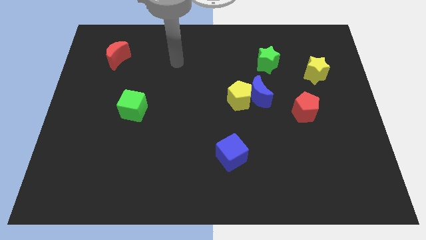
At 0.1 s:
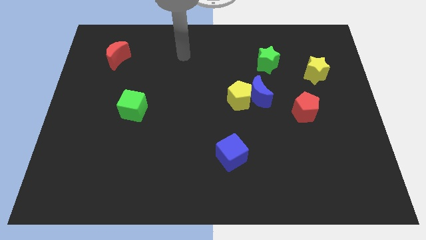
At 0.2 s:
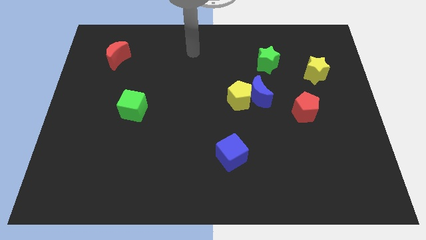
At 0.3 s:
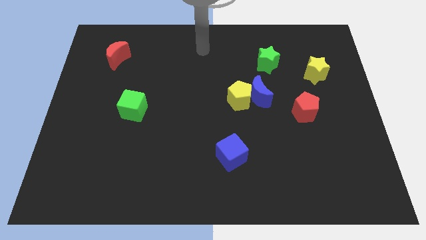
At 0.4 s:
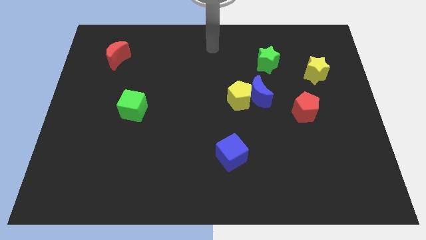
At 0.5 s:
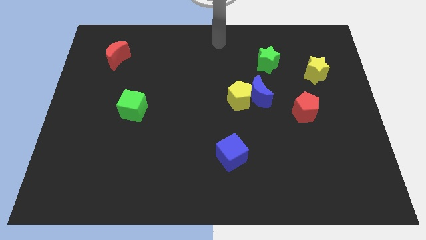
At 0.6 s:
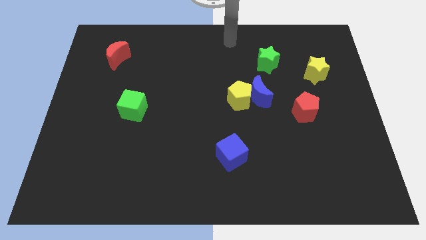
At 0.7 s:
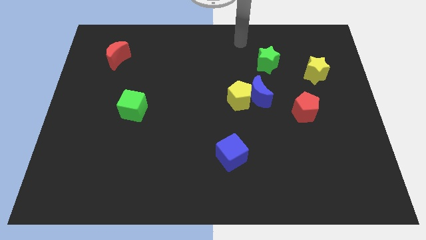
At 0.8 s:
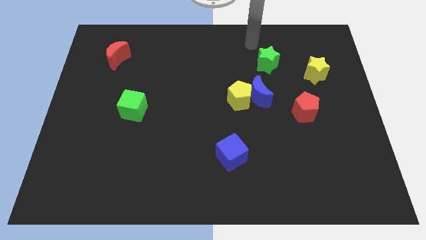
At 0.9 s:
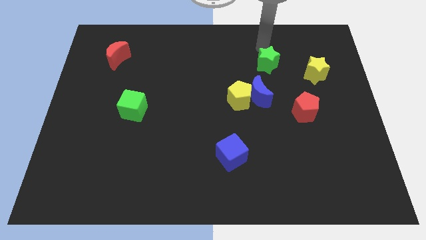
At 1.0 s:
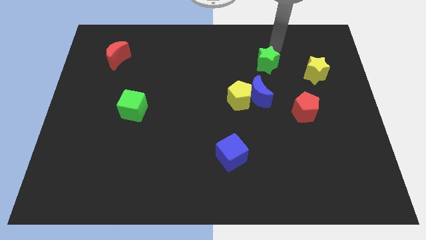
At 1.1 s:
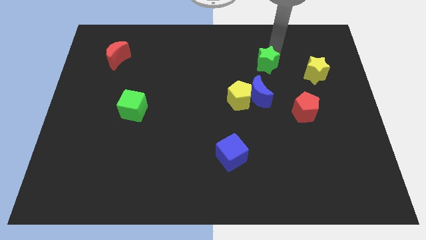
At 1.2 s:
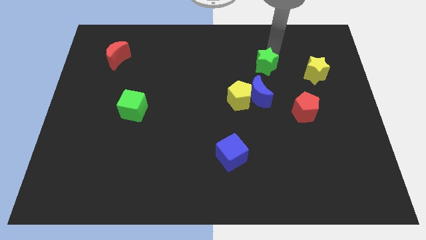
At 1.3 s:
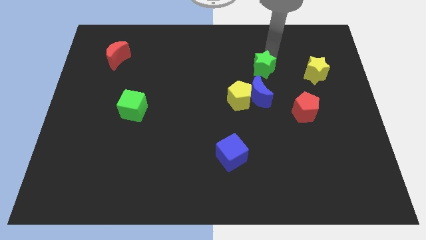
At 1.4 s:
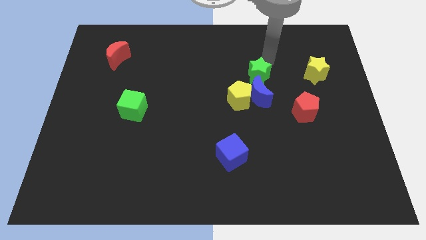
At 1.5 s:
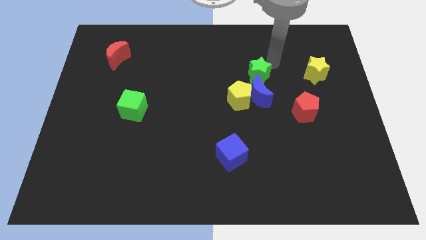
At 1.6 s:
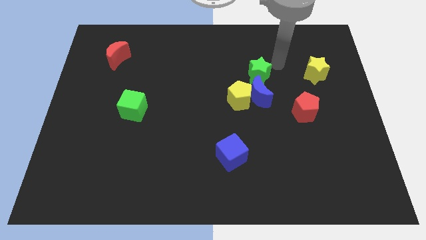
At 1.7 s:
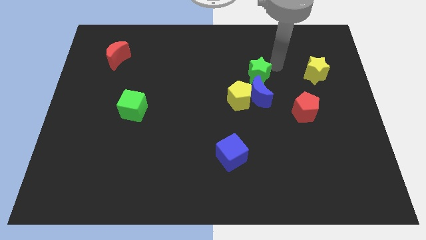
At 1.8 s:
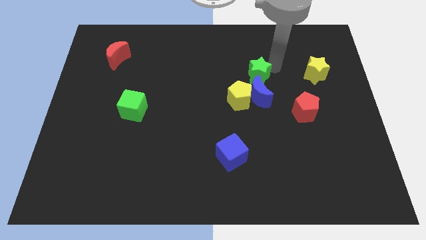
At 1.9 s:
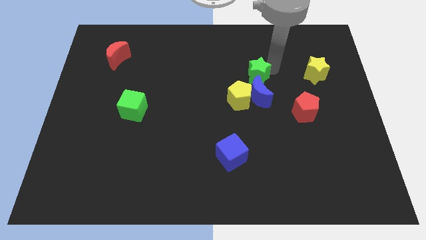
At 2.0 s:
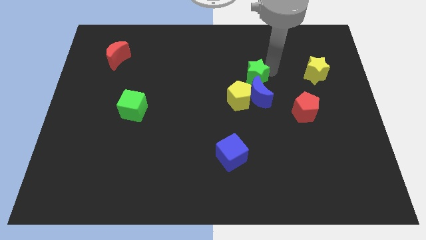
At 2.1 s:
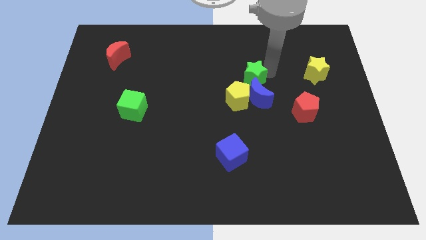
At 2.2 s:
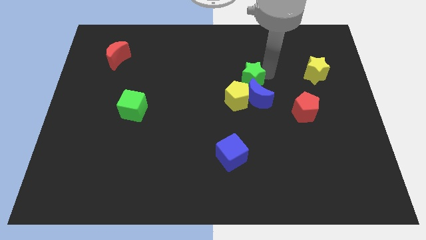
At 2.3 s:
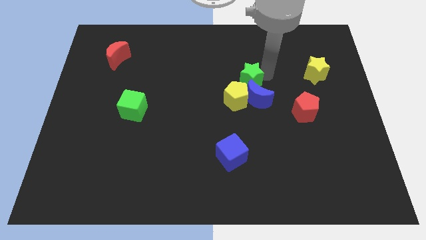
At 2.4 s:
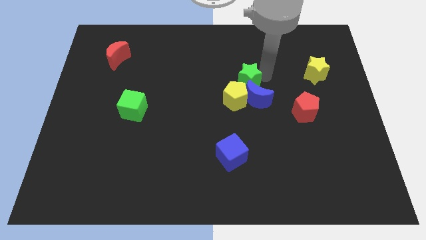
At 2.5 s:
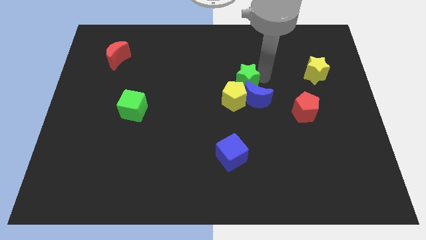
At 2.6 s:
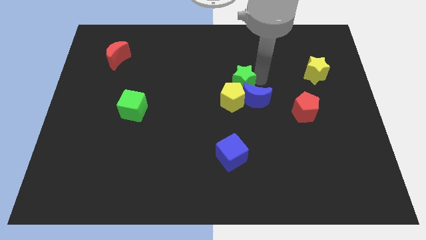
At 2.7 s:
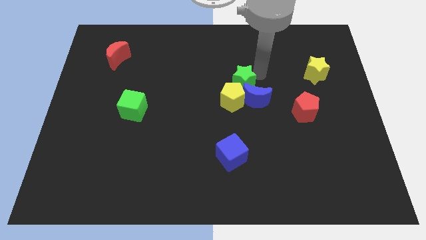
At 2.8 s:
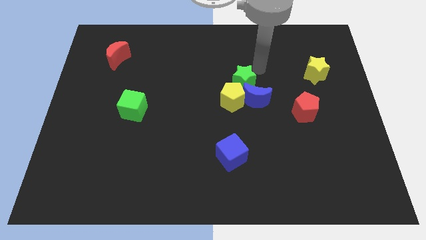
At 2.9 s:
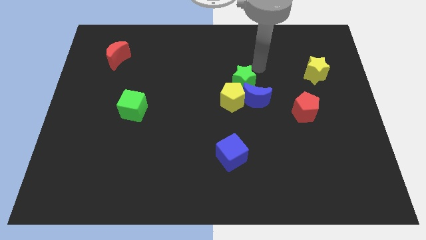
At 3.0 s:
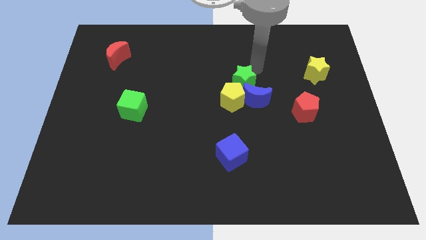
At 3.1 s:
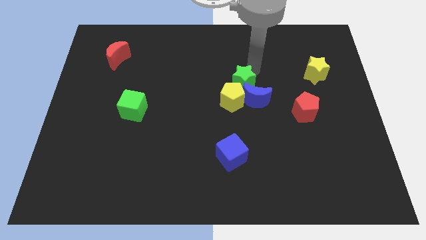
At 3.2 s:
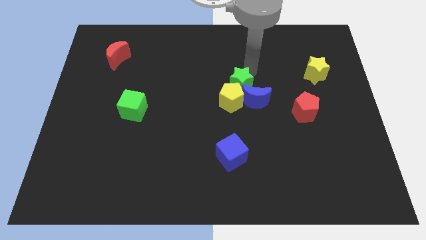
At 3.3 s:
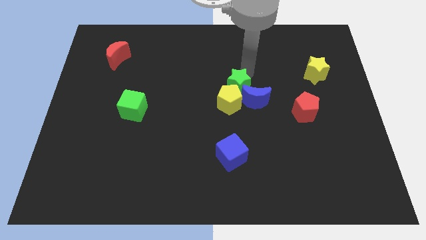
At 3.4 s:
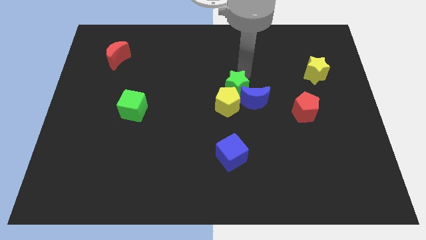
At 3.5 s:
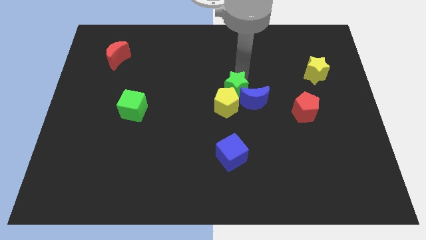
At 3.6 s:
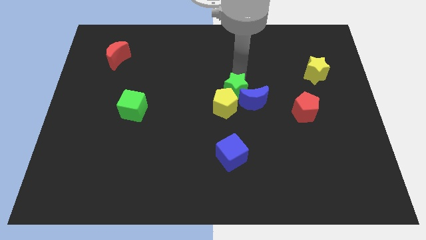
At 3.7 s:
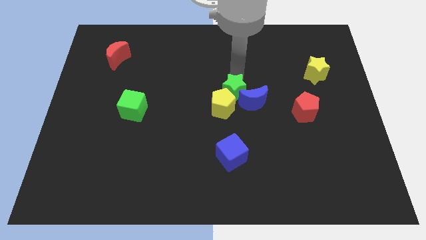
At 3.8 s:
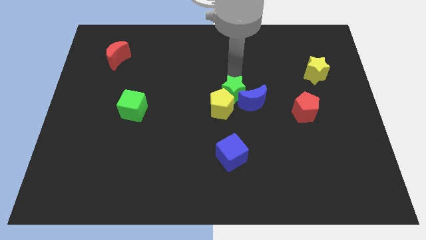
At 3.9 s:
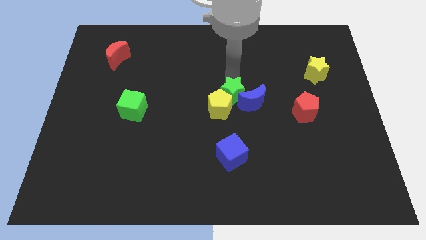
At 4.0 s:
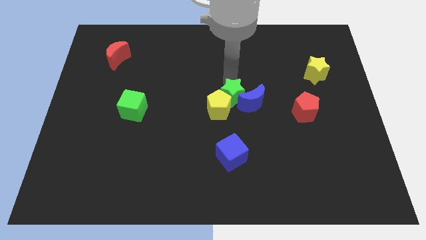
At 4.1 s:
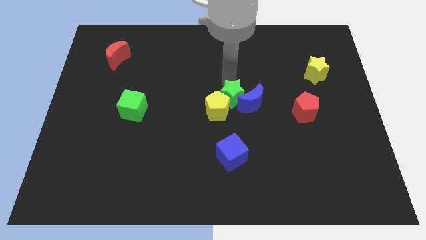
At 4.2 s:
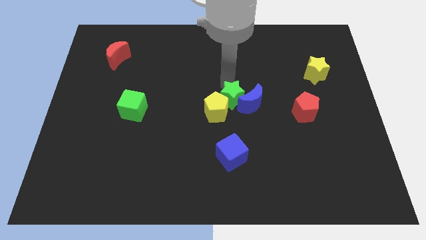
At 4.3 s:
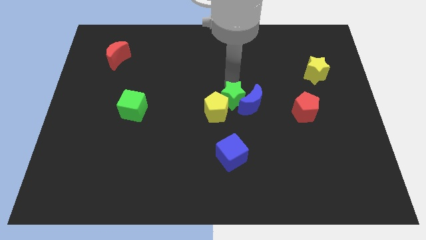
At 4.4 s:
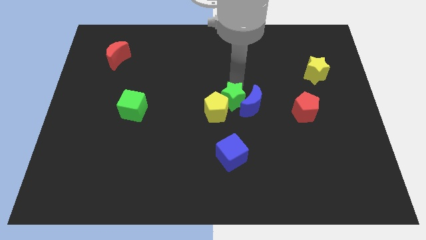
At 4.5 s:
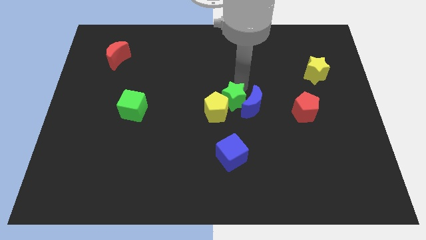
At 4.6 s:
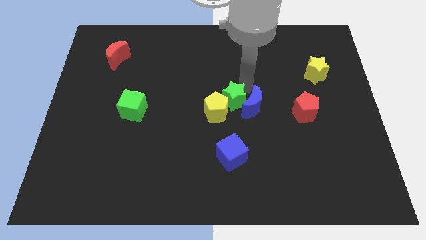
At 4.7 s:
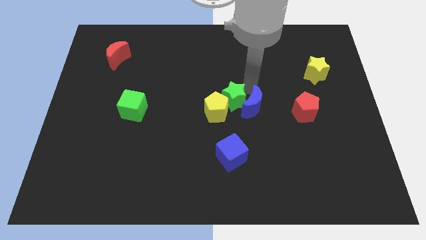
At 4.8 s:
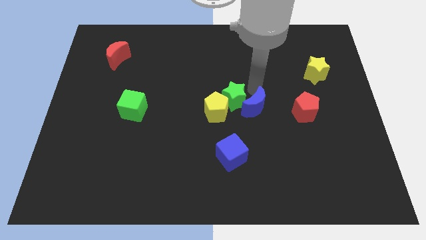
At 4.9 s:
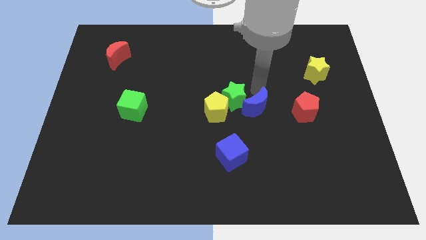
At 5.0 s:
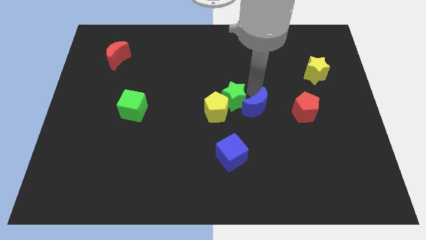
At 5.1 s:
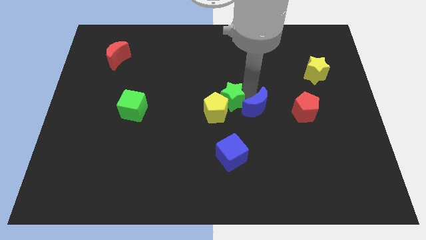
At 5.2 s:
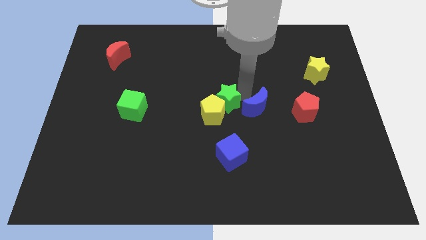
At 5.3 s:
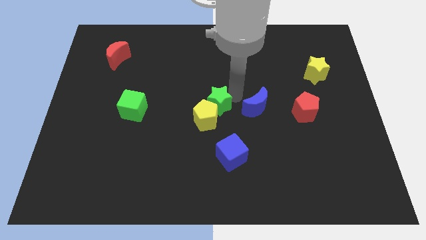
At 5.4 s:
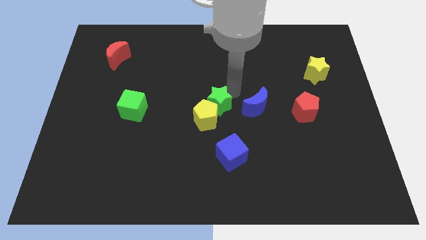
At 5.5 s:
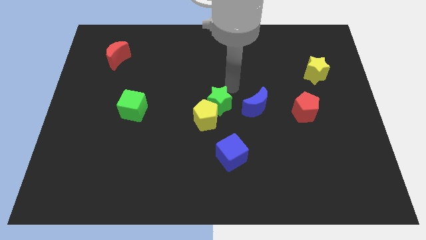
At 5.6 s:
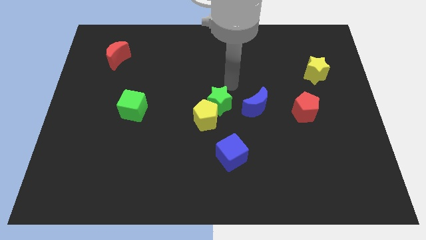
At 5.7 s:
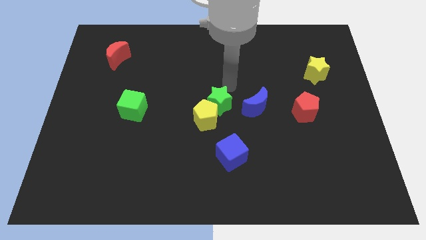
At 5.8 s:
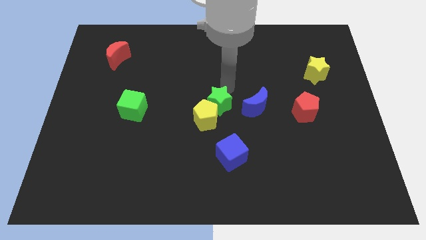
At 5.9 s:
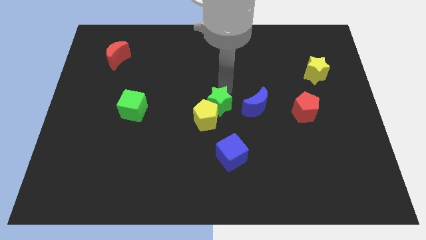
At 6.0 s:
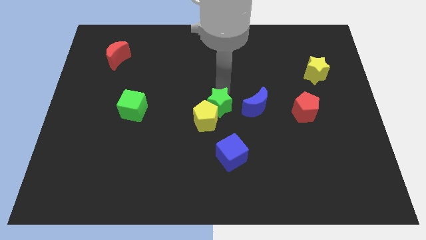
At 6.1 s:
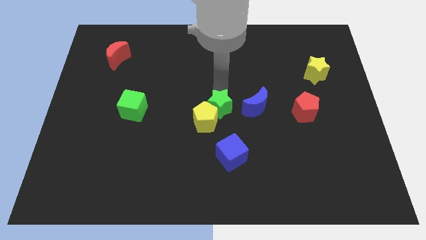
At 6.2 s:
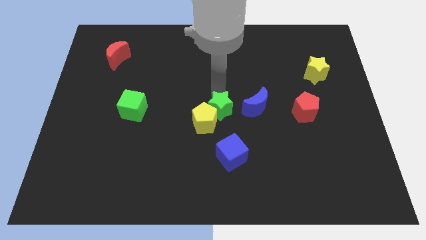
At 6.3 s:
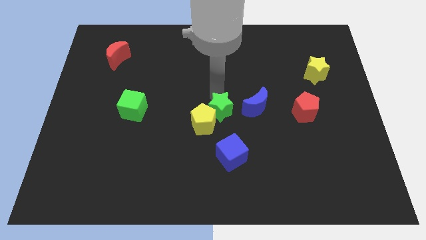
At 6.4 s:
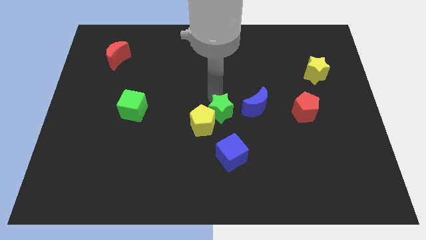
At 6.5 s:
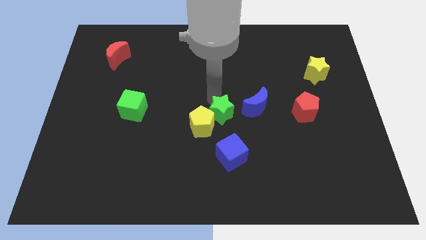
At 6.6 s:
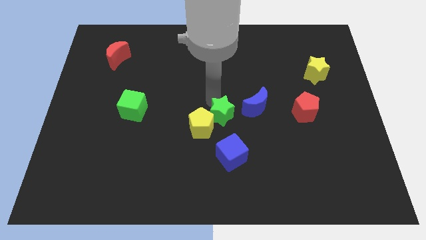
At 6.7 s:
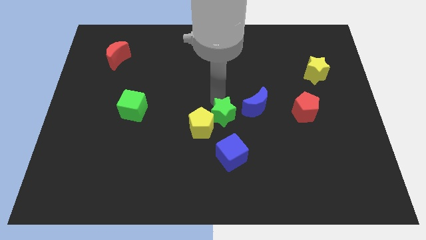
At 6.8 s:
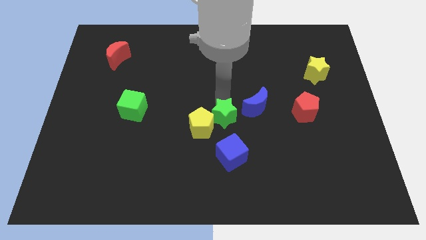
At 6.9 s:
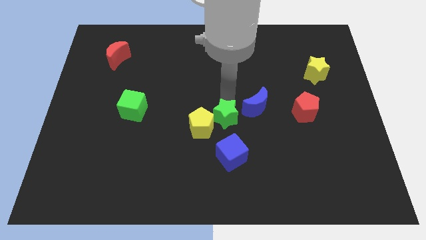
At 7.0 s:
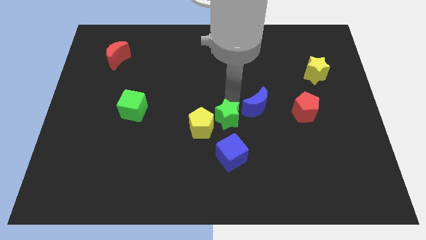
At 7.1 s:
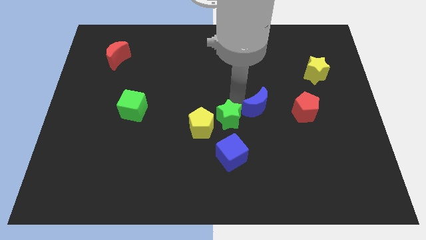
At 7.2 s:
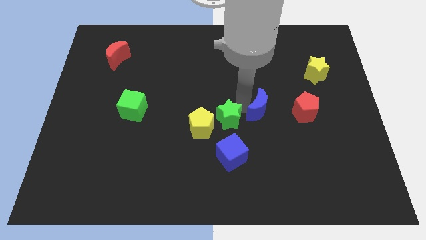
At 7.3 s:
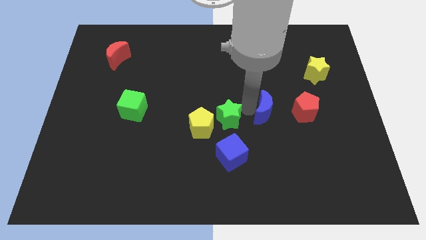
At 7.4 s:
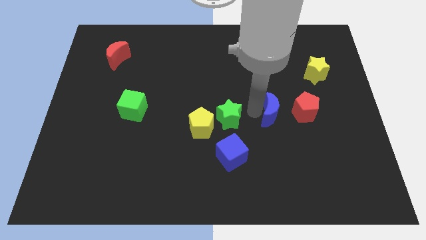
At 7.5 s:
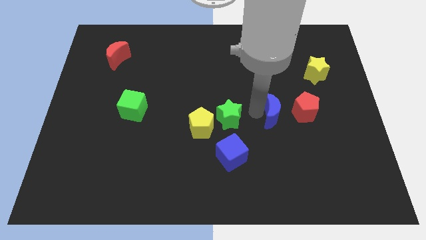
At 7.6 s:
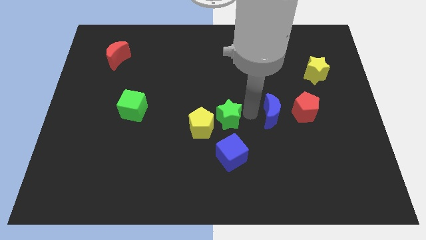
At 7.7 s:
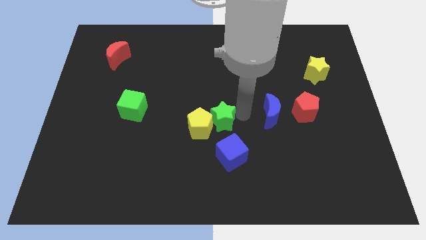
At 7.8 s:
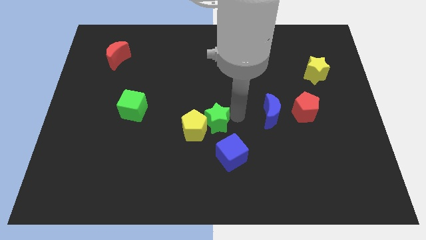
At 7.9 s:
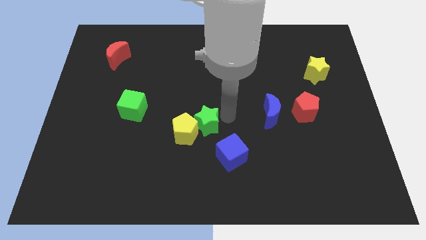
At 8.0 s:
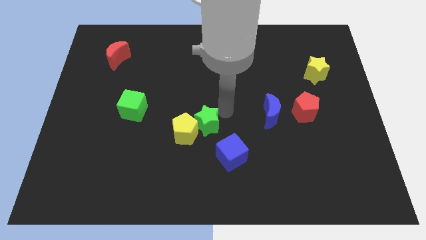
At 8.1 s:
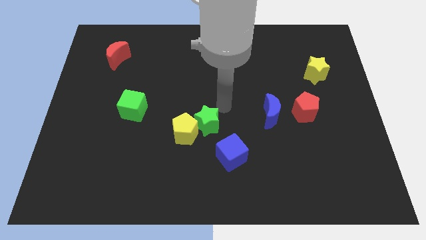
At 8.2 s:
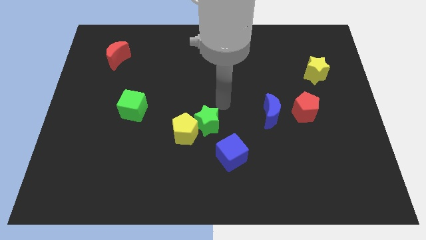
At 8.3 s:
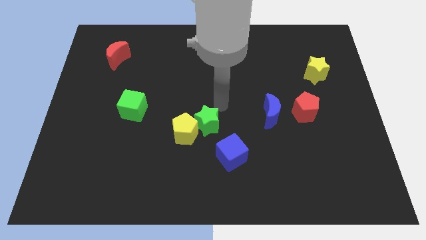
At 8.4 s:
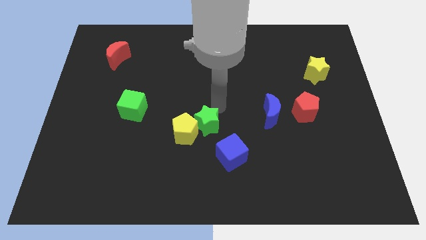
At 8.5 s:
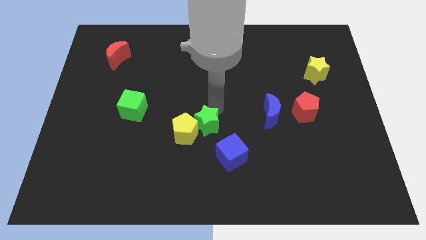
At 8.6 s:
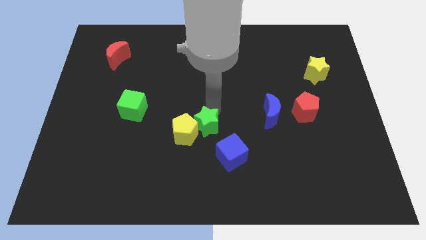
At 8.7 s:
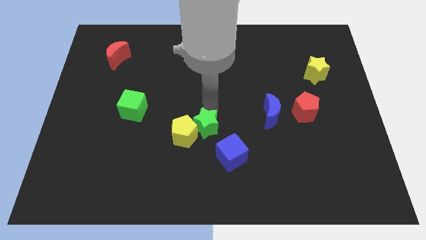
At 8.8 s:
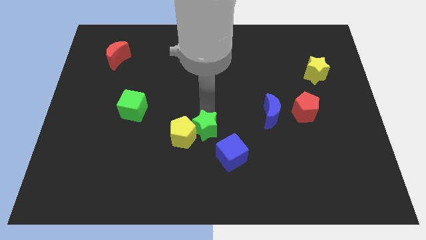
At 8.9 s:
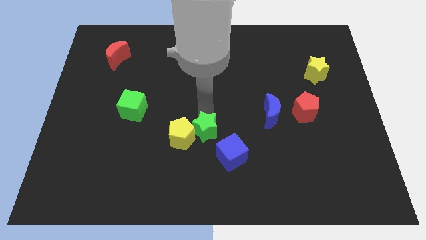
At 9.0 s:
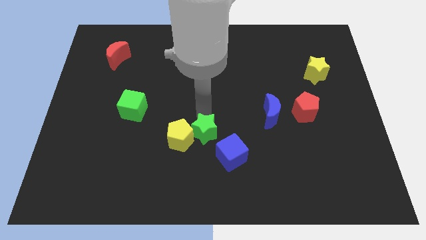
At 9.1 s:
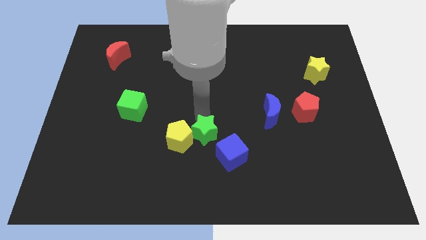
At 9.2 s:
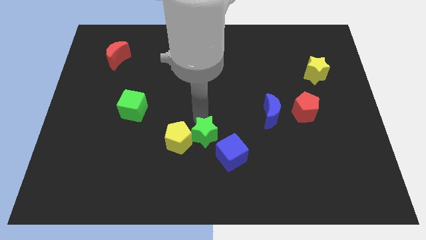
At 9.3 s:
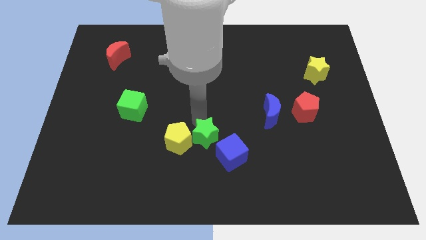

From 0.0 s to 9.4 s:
slide the green star to the left side of the blue cube
